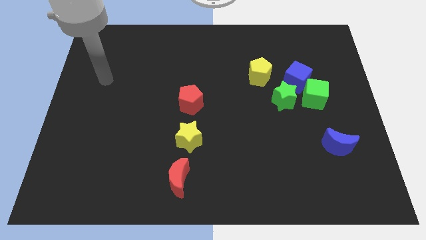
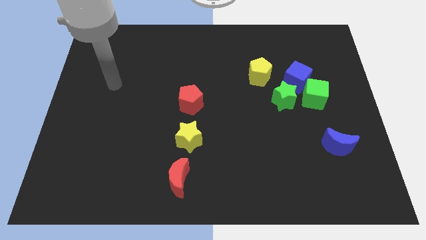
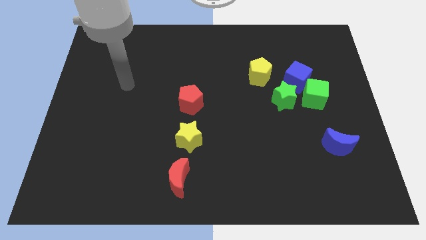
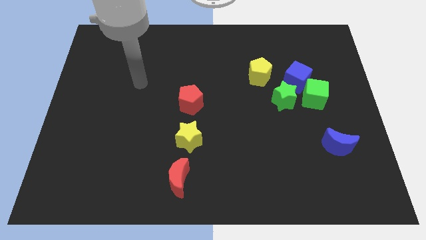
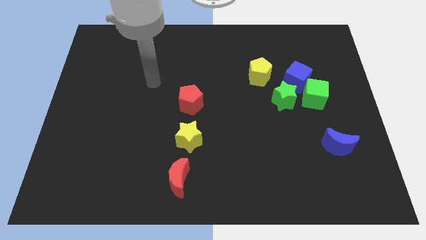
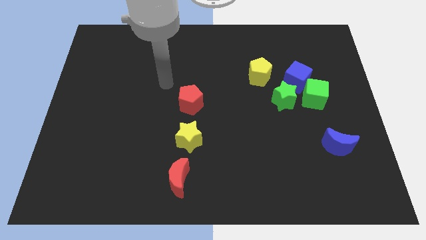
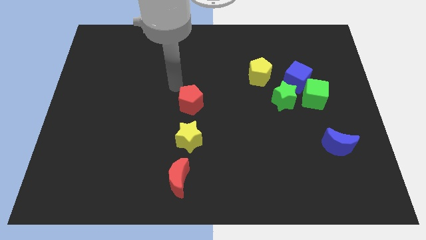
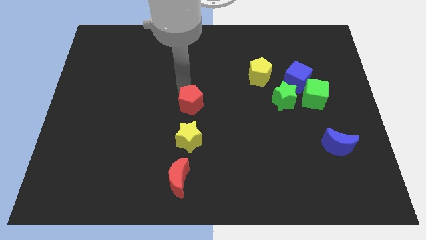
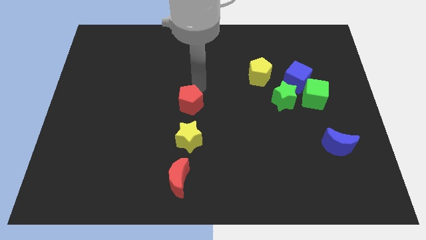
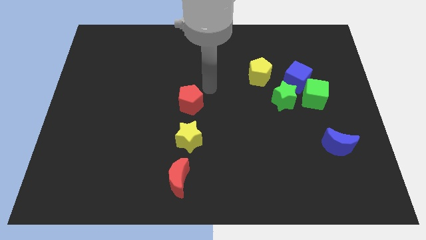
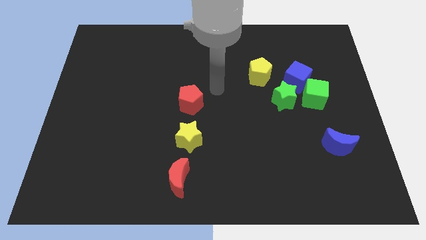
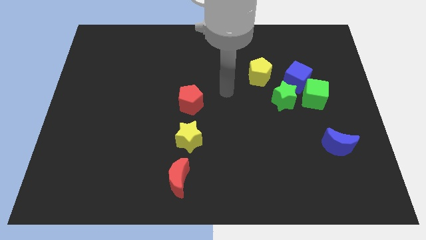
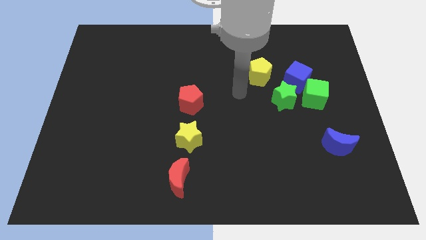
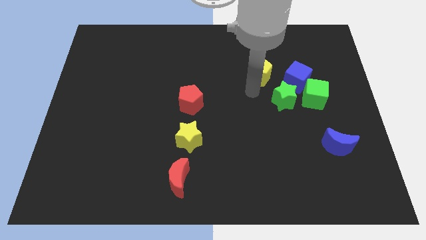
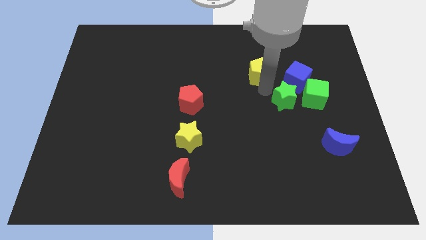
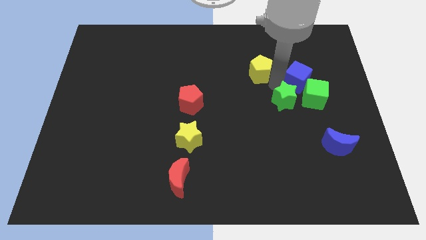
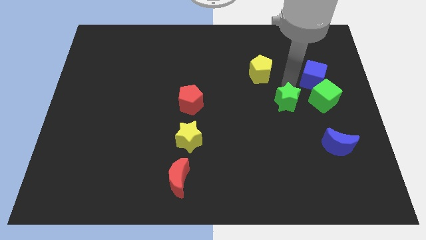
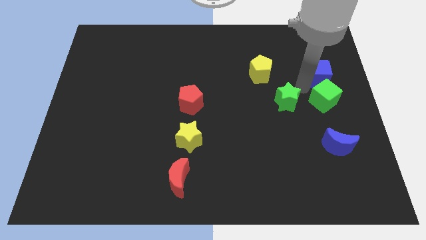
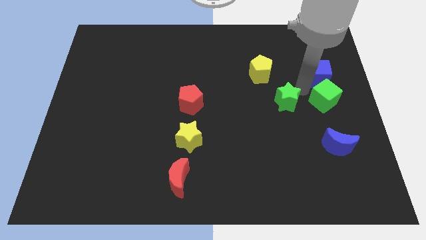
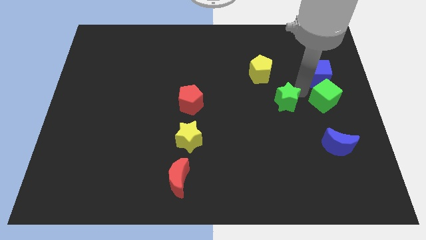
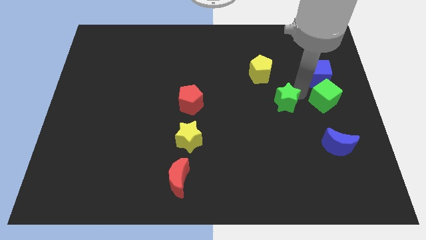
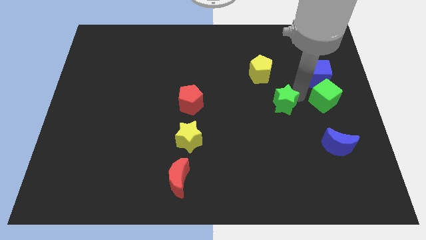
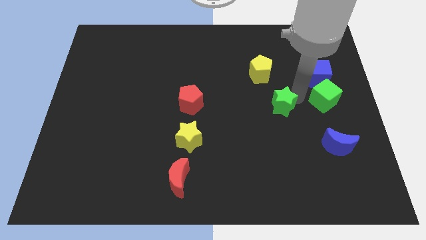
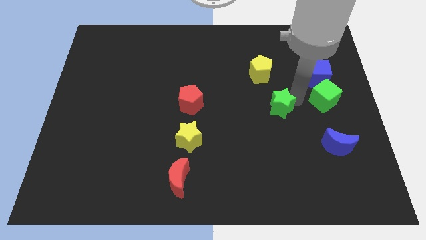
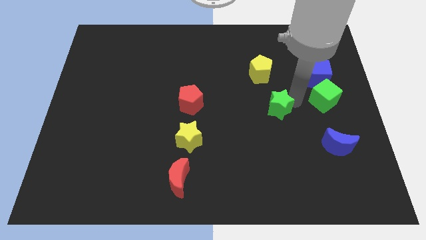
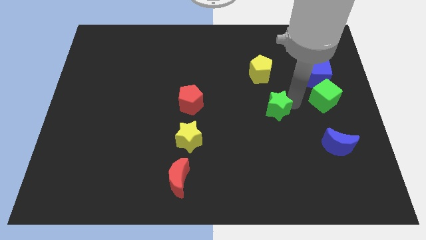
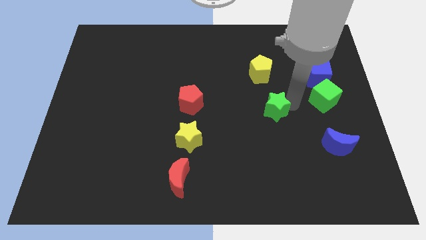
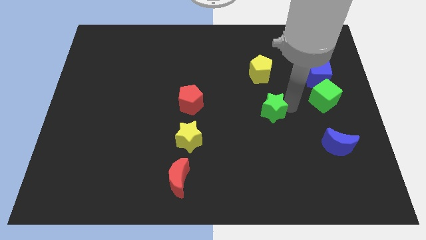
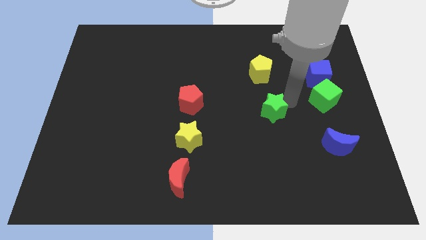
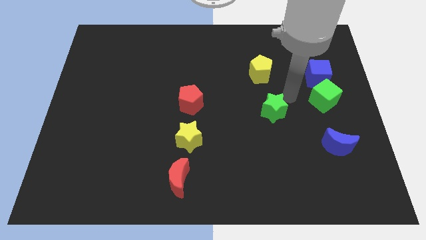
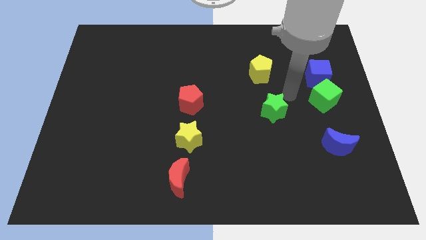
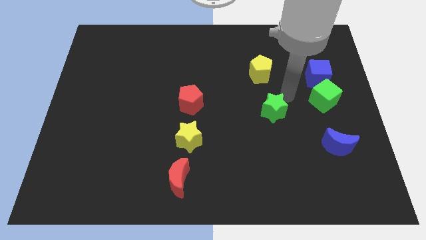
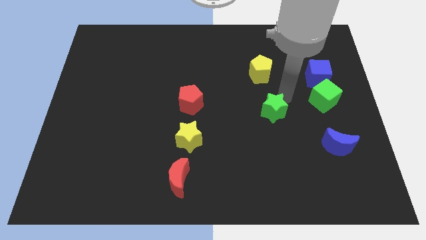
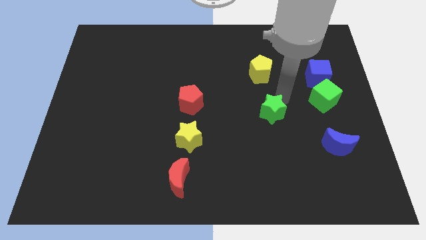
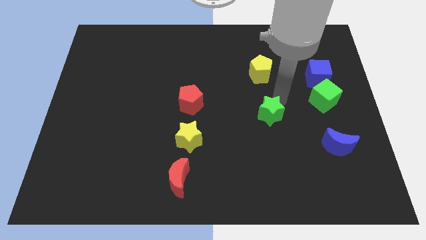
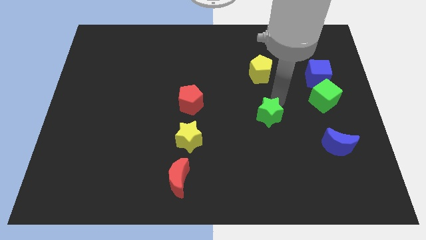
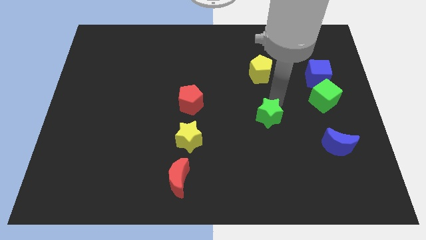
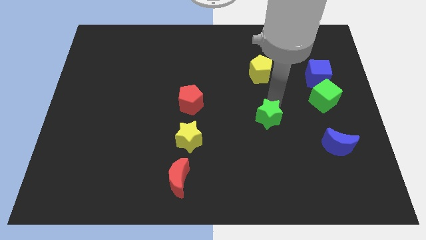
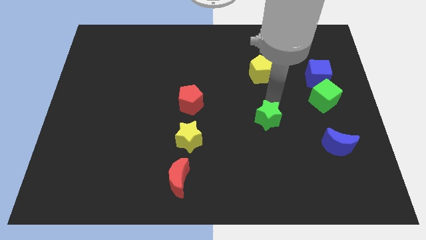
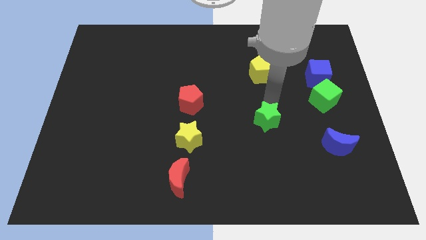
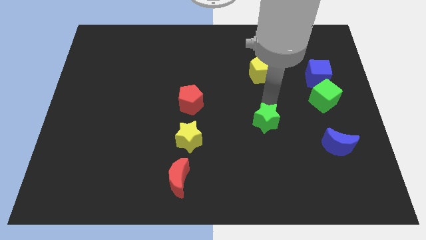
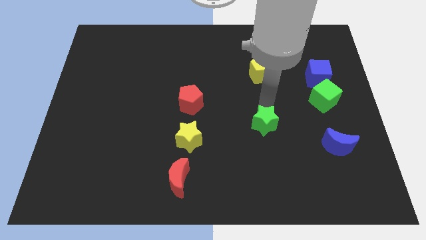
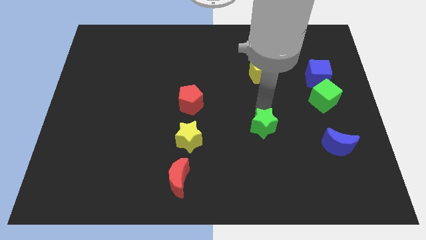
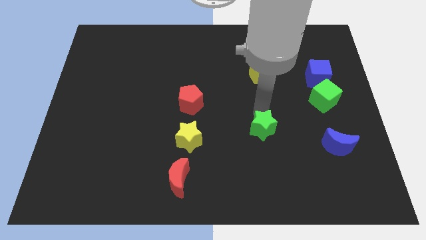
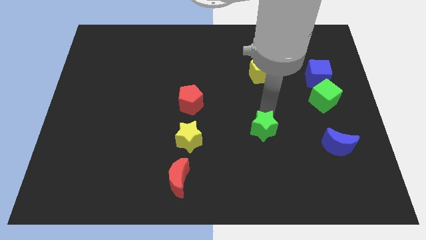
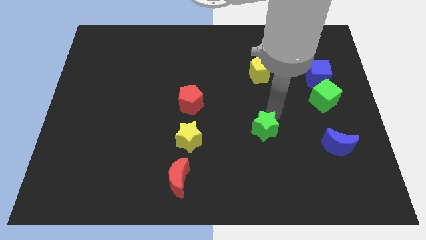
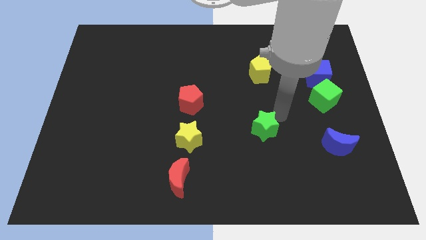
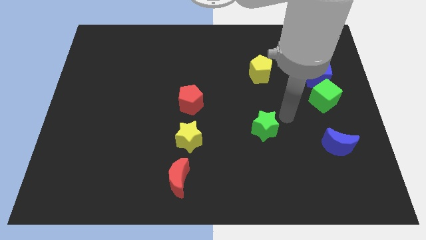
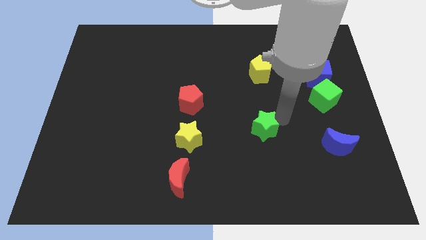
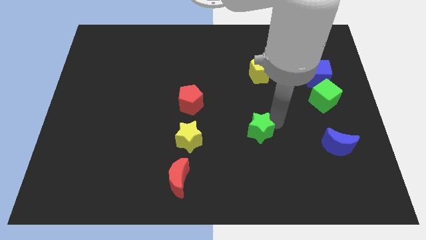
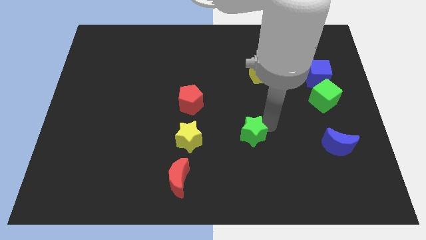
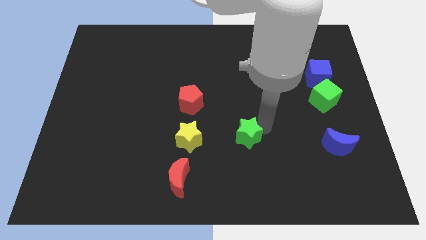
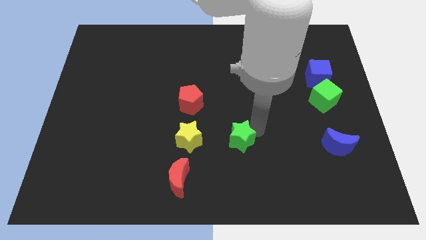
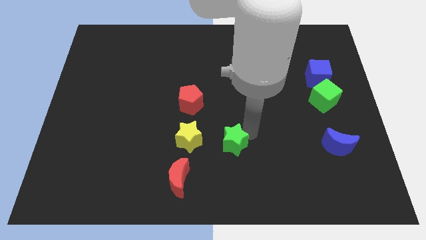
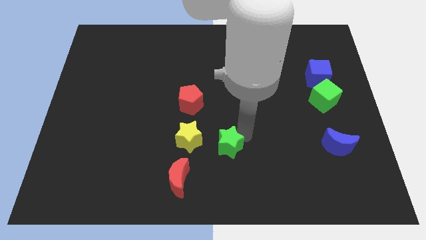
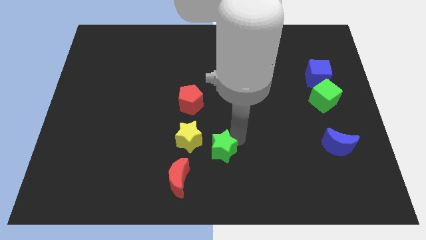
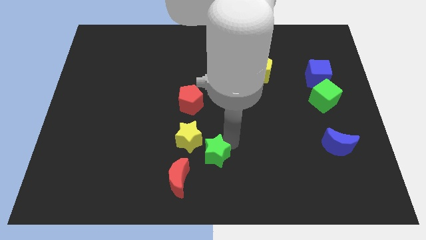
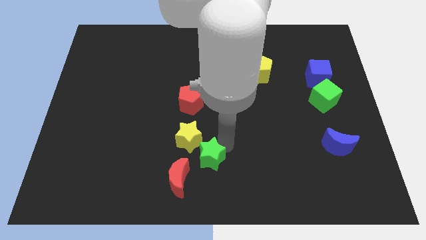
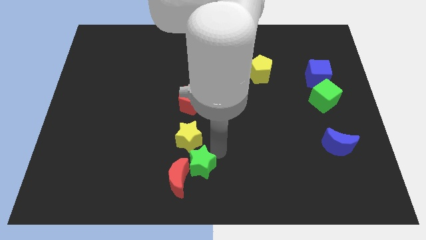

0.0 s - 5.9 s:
slide the green star towards the red moon
